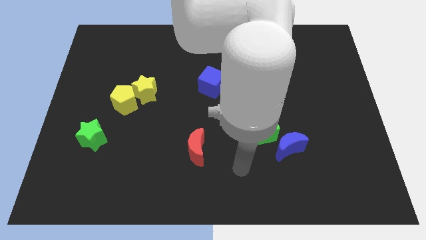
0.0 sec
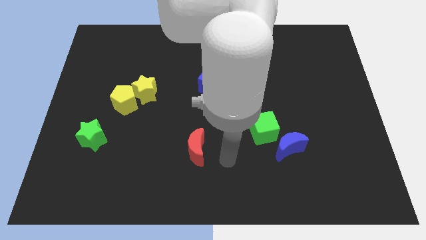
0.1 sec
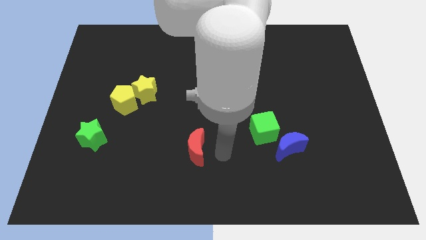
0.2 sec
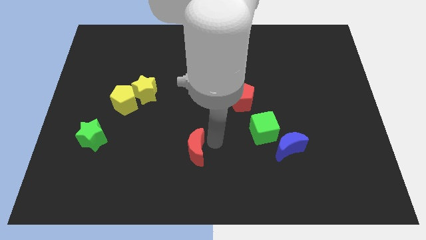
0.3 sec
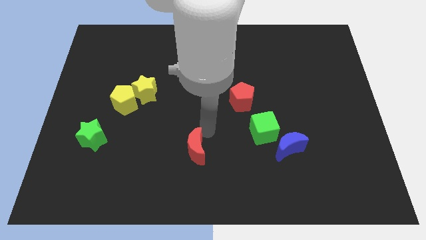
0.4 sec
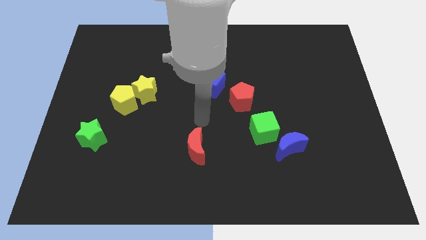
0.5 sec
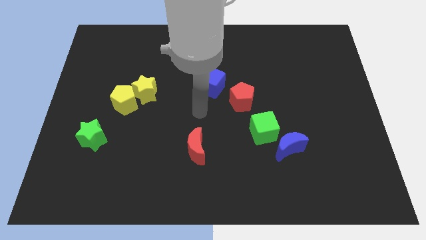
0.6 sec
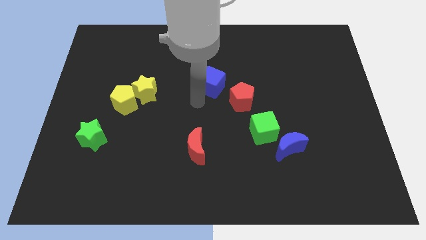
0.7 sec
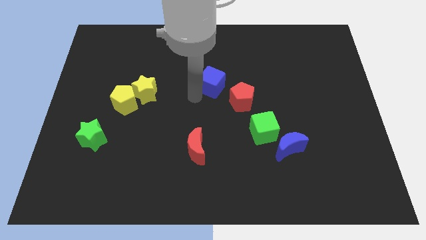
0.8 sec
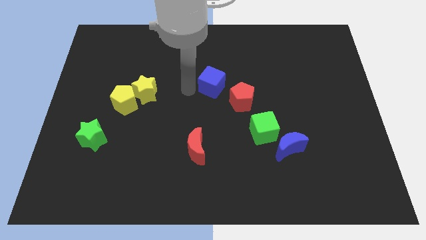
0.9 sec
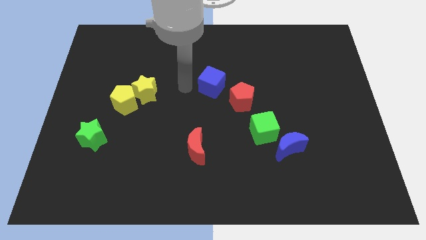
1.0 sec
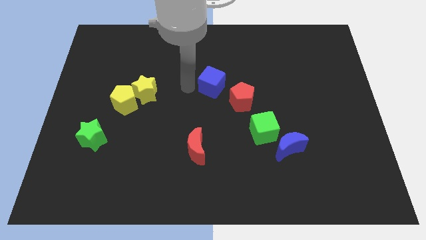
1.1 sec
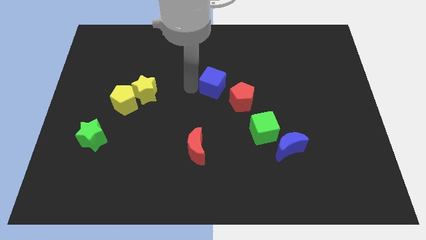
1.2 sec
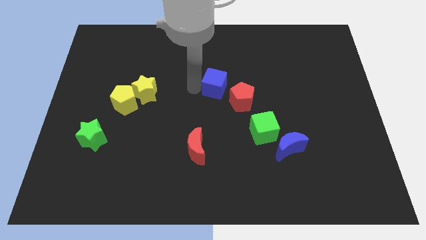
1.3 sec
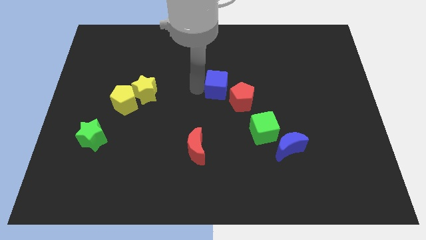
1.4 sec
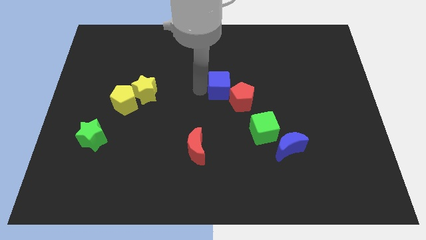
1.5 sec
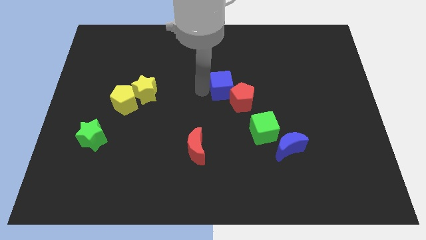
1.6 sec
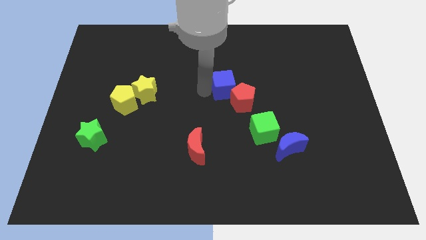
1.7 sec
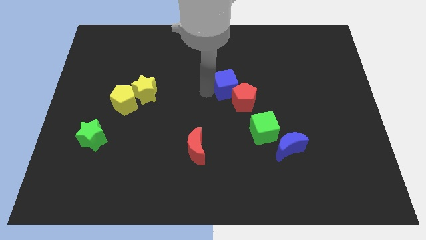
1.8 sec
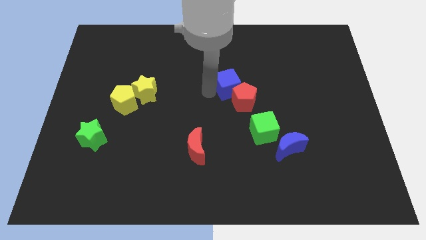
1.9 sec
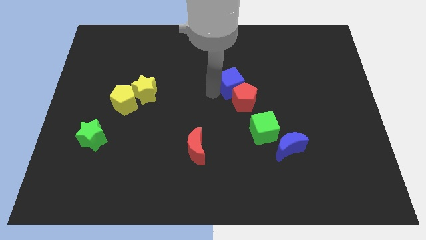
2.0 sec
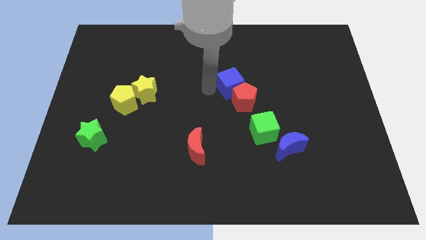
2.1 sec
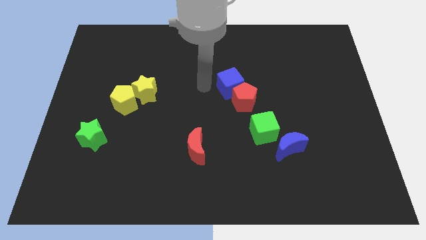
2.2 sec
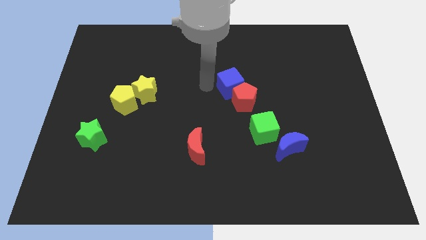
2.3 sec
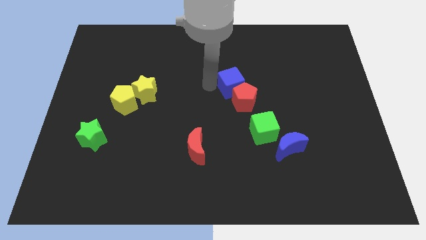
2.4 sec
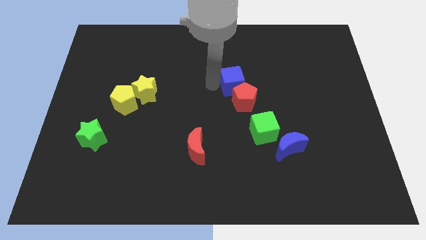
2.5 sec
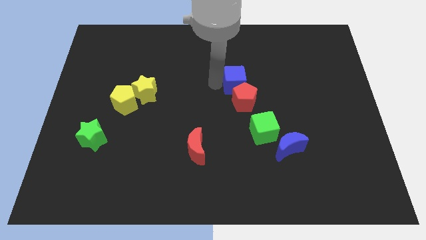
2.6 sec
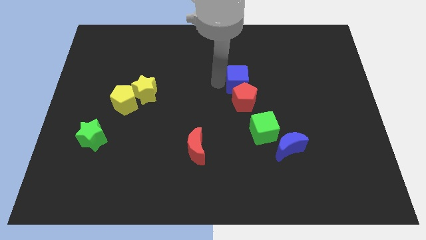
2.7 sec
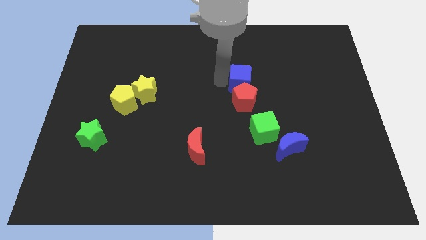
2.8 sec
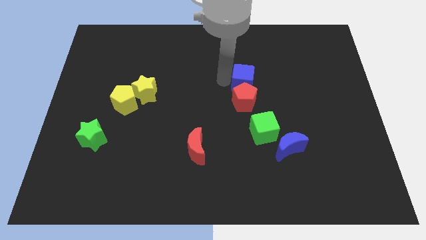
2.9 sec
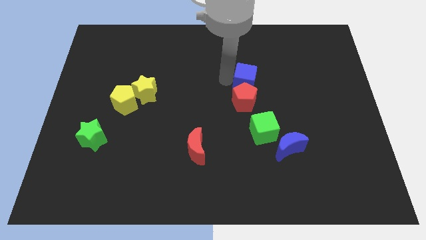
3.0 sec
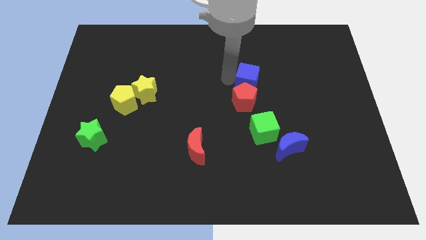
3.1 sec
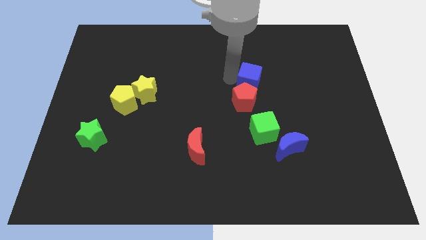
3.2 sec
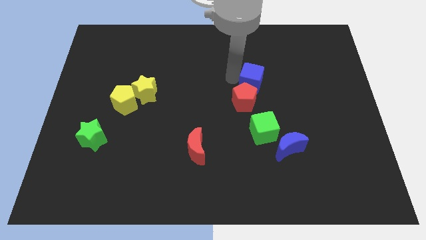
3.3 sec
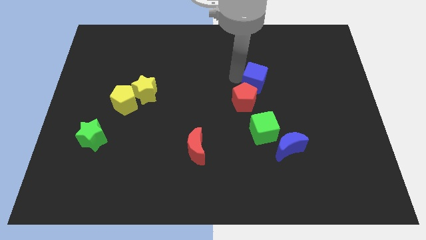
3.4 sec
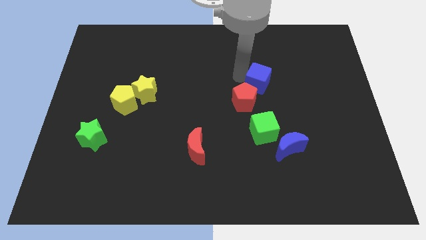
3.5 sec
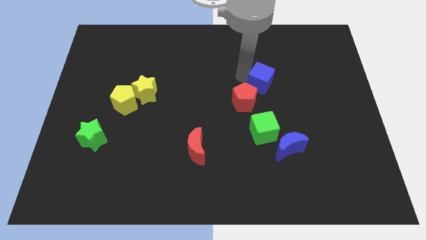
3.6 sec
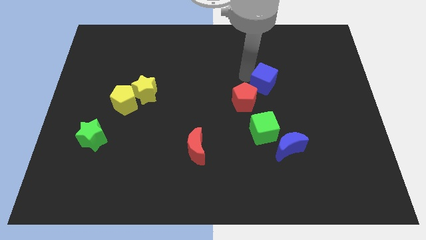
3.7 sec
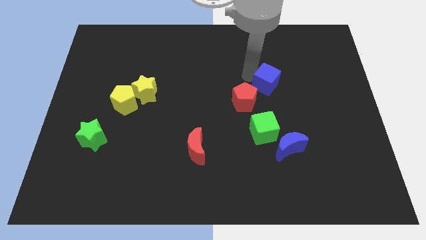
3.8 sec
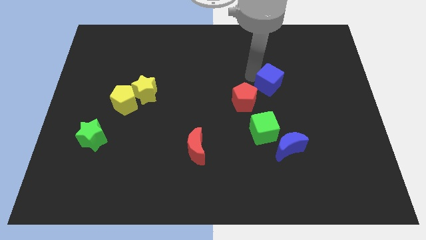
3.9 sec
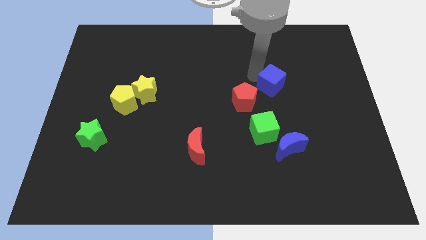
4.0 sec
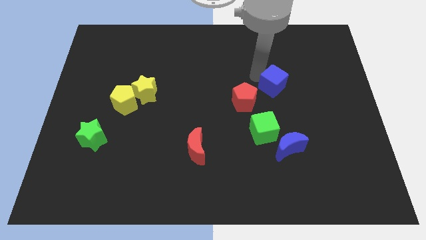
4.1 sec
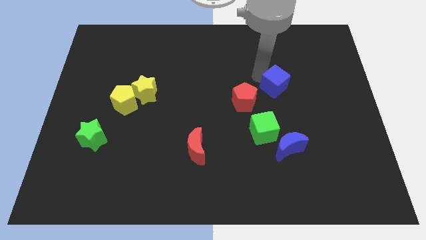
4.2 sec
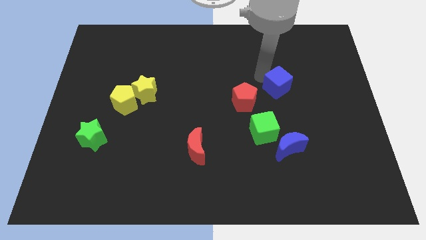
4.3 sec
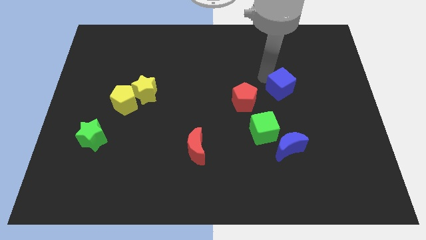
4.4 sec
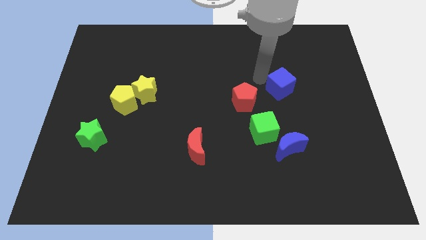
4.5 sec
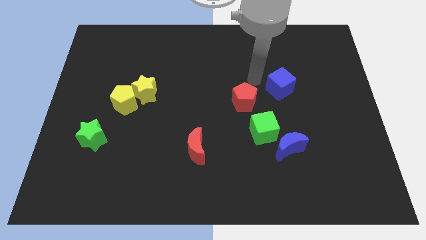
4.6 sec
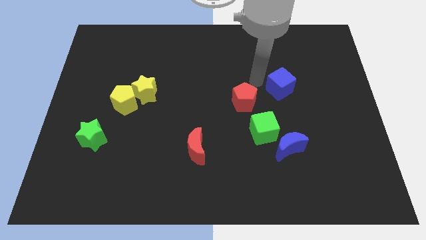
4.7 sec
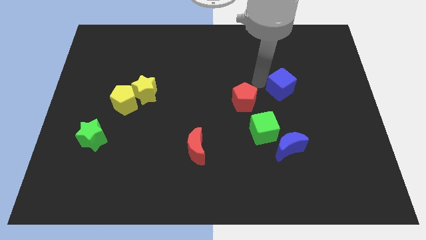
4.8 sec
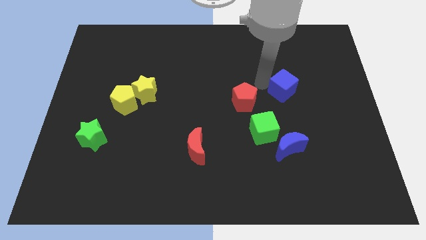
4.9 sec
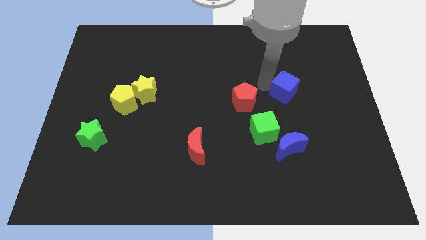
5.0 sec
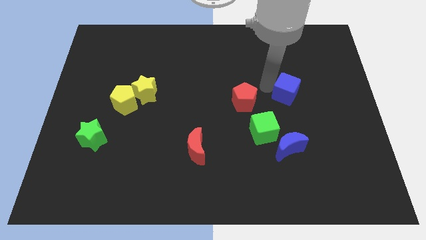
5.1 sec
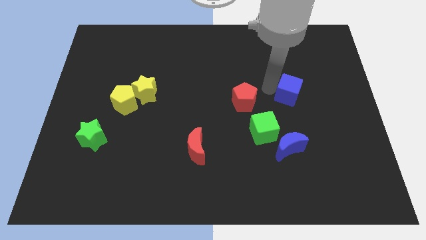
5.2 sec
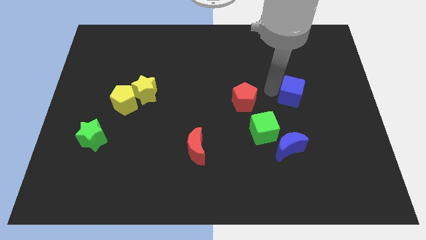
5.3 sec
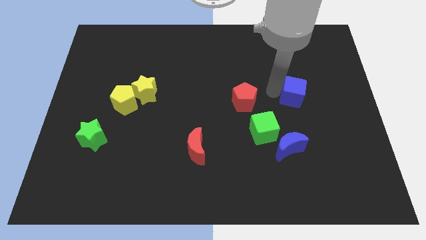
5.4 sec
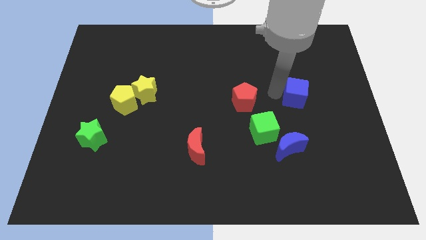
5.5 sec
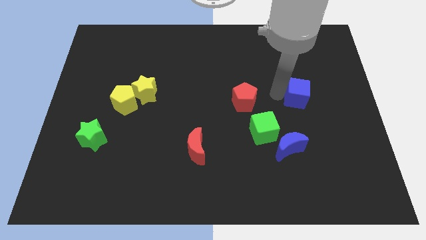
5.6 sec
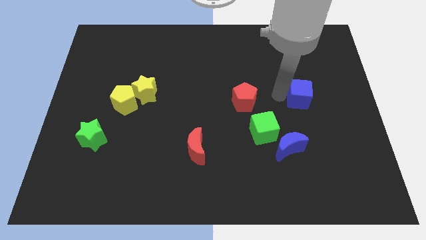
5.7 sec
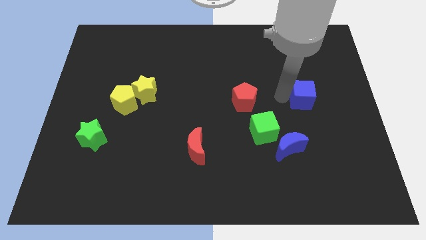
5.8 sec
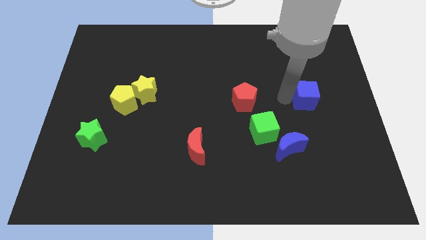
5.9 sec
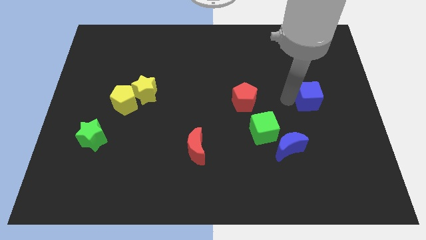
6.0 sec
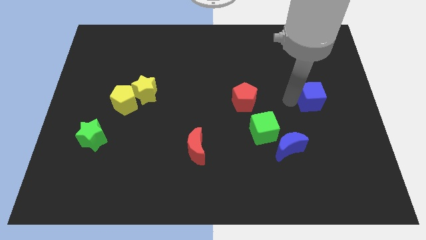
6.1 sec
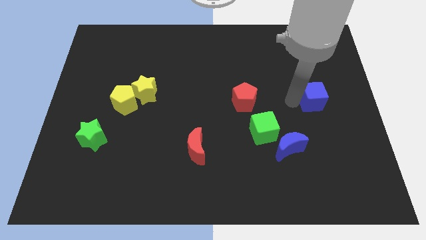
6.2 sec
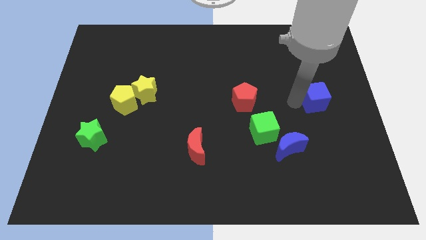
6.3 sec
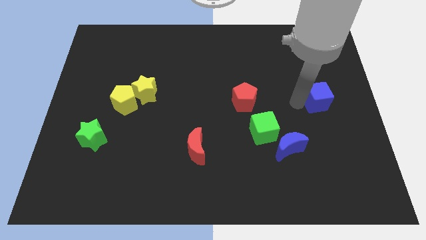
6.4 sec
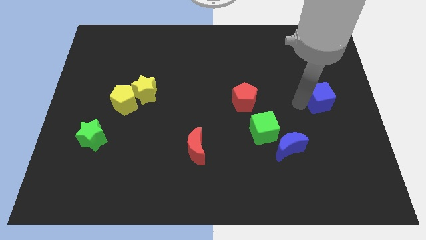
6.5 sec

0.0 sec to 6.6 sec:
slide the blue cube to the right side

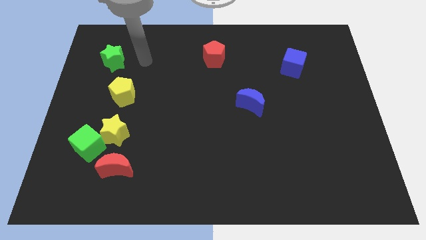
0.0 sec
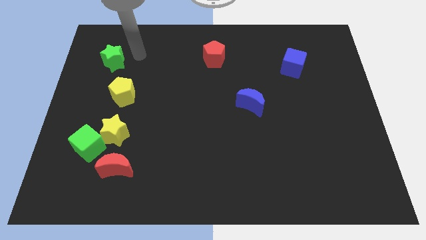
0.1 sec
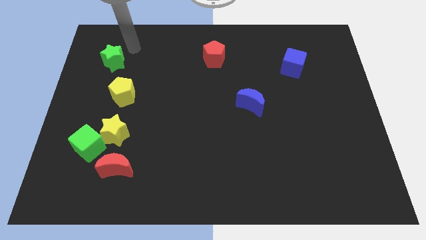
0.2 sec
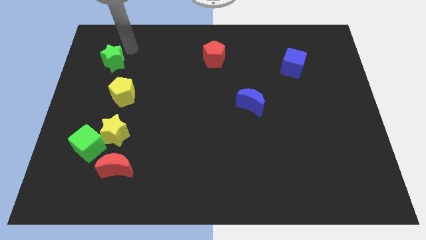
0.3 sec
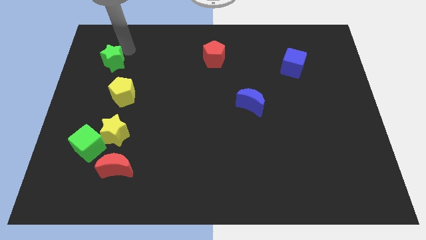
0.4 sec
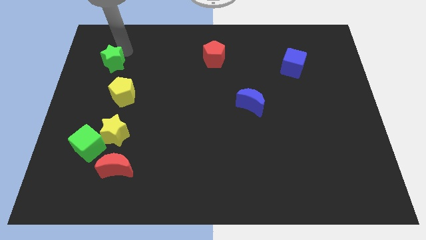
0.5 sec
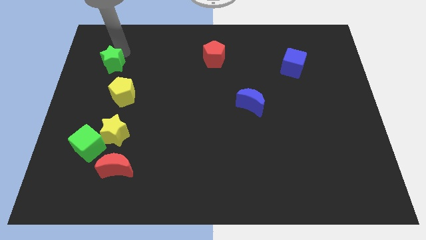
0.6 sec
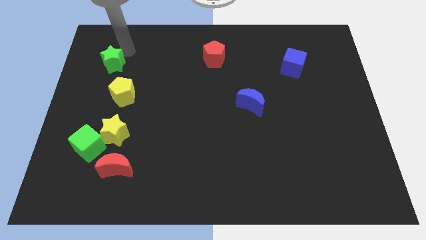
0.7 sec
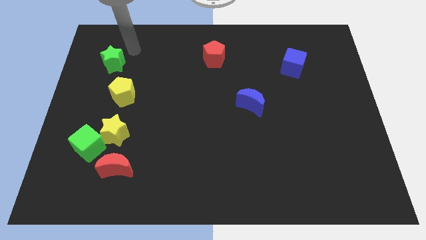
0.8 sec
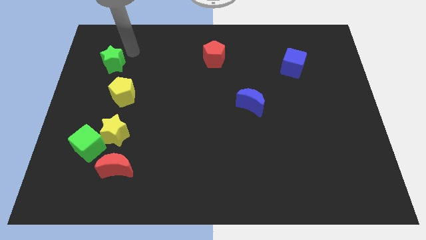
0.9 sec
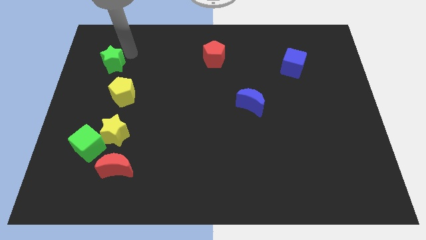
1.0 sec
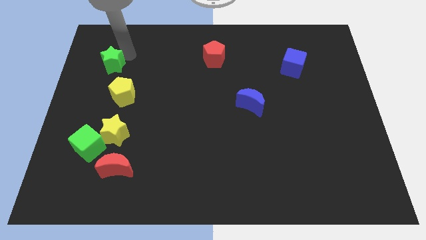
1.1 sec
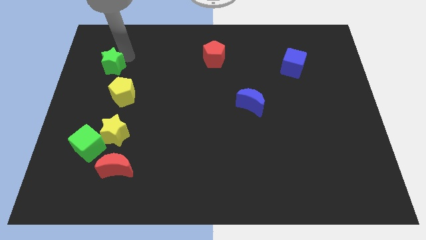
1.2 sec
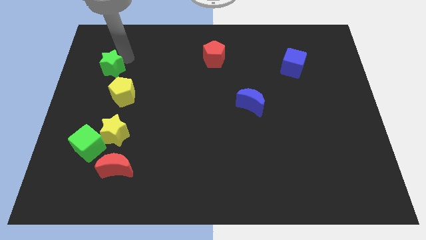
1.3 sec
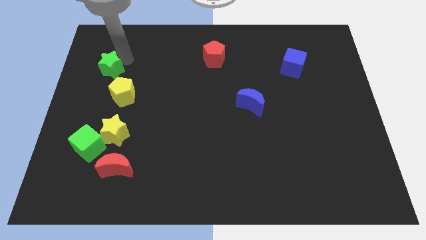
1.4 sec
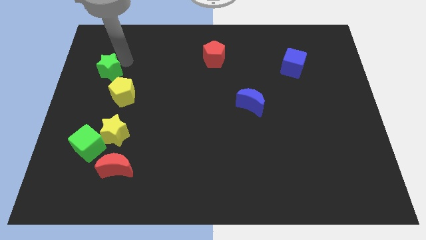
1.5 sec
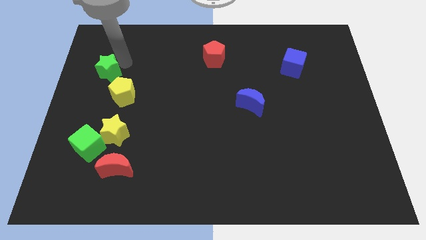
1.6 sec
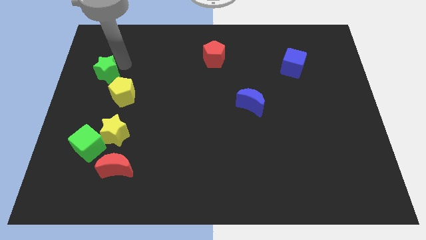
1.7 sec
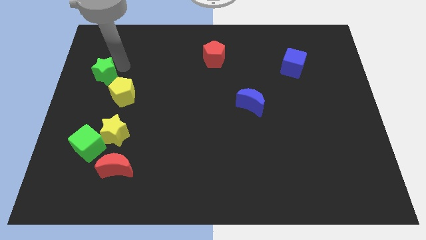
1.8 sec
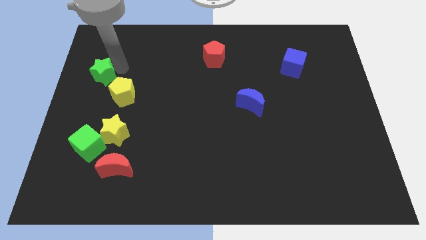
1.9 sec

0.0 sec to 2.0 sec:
move the green star to the left side of the board
